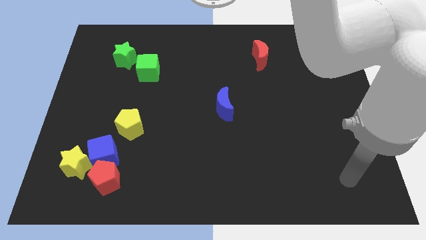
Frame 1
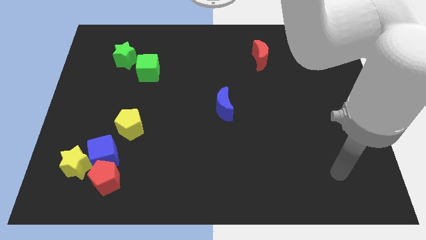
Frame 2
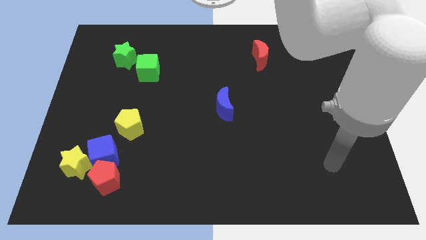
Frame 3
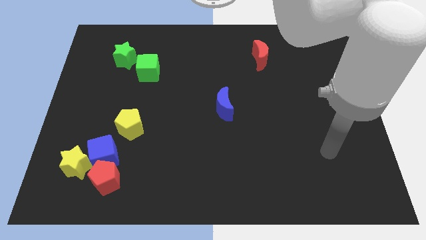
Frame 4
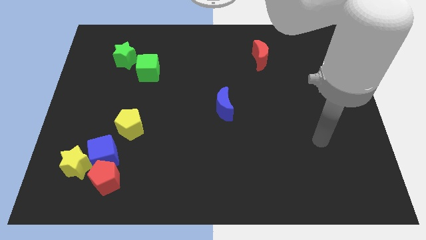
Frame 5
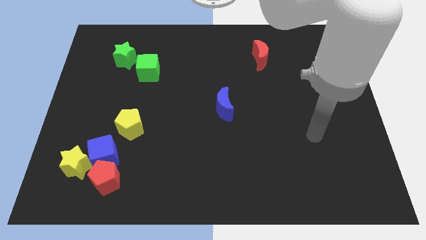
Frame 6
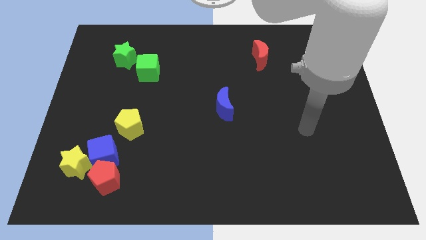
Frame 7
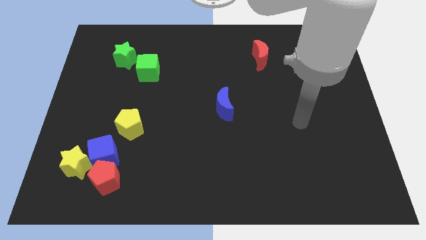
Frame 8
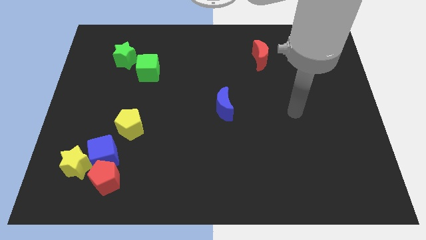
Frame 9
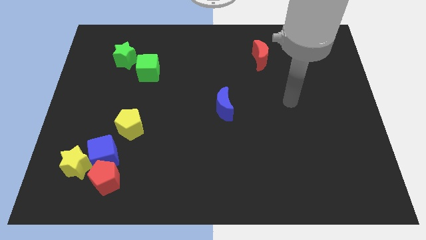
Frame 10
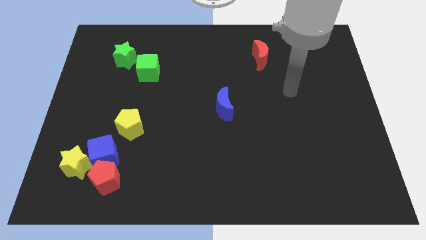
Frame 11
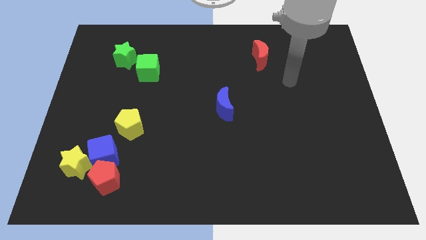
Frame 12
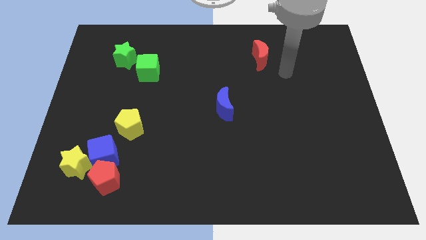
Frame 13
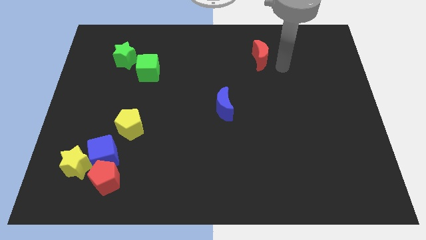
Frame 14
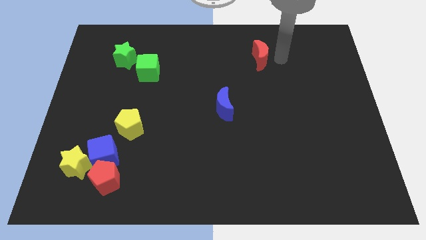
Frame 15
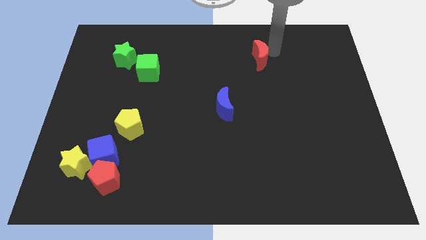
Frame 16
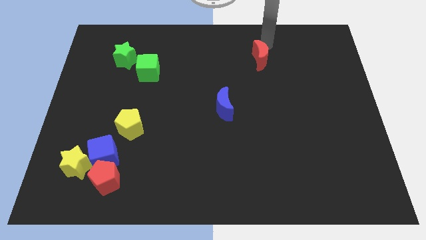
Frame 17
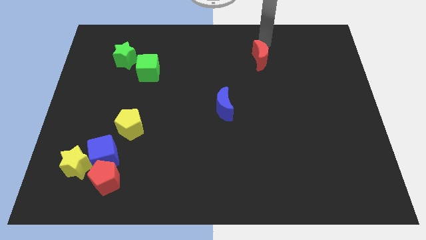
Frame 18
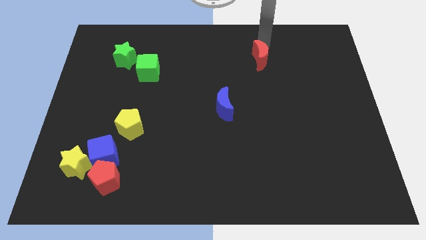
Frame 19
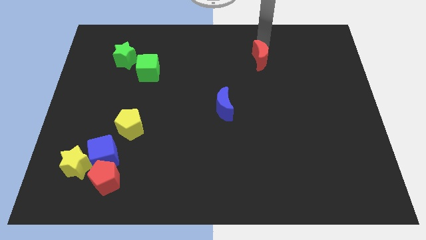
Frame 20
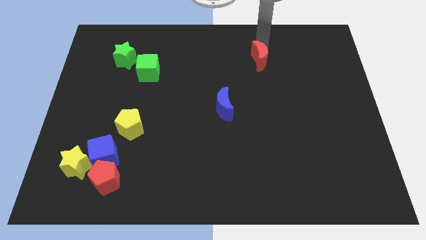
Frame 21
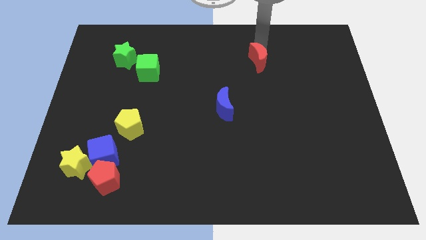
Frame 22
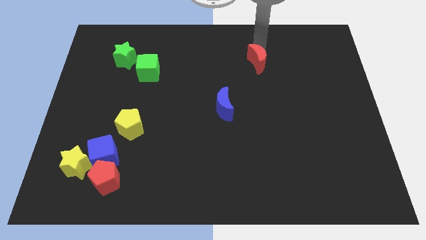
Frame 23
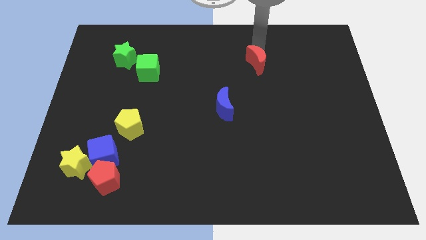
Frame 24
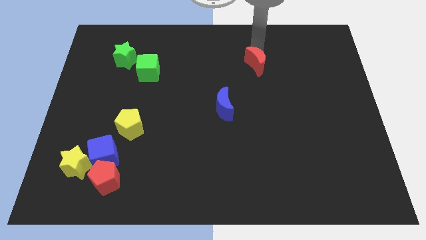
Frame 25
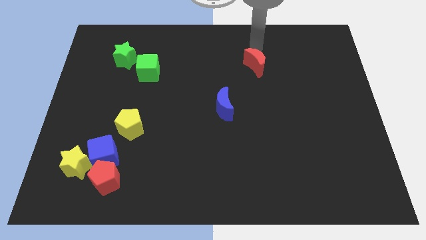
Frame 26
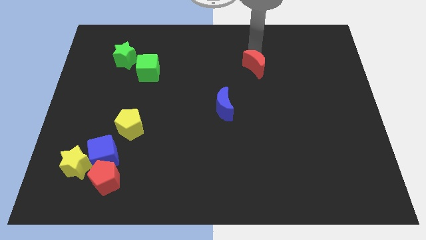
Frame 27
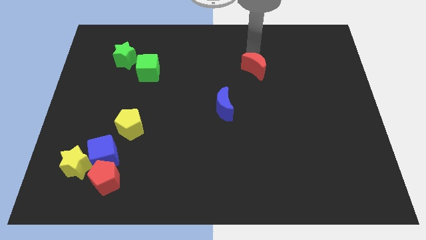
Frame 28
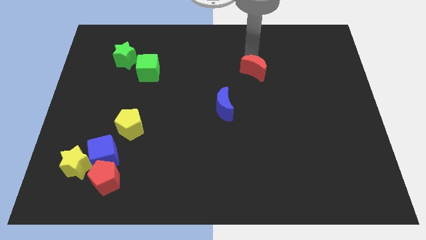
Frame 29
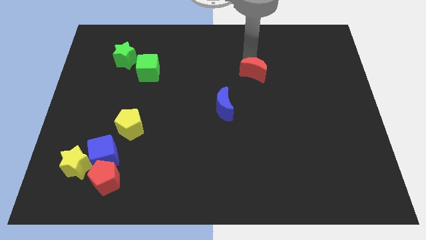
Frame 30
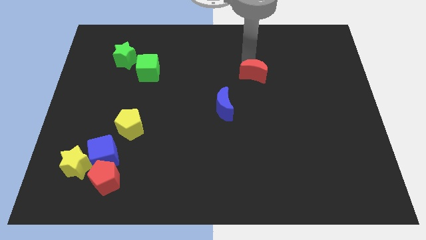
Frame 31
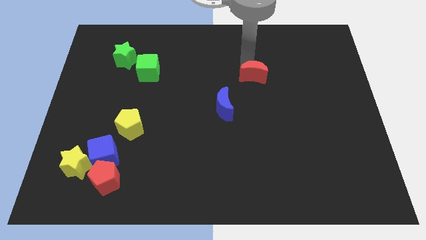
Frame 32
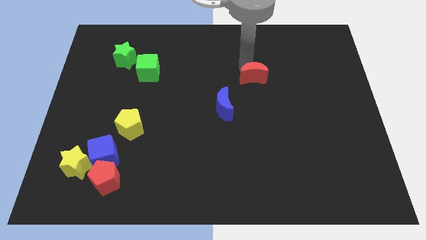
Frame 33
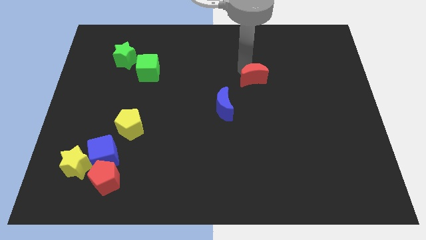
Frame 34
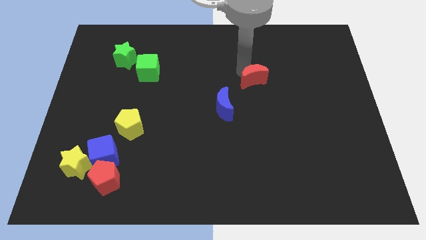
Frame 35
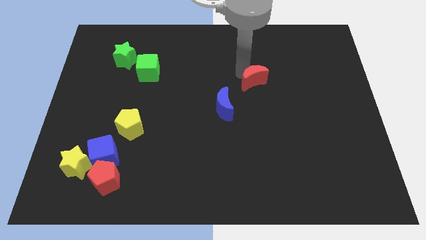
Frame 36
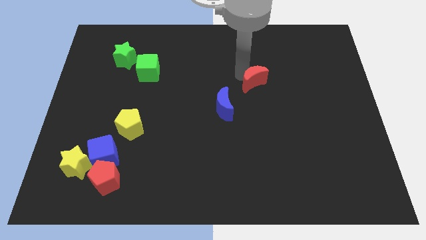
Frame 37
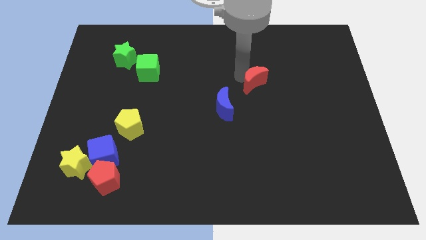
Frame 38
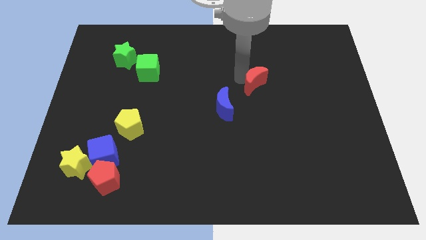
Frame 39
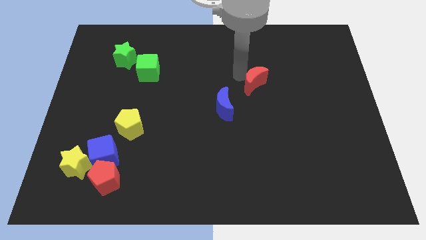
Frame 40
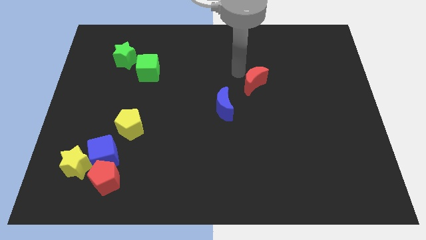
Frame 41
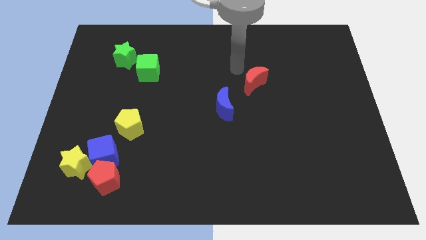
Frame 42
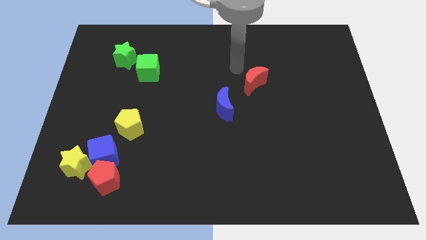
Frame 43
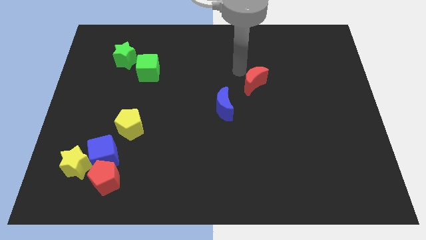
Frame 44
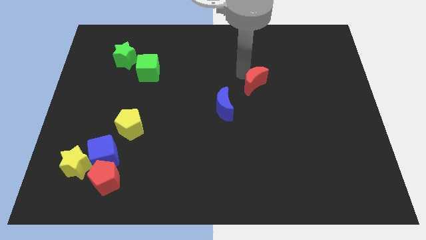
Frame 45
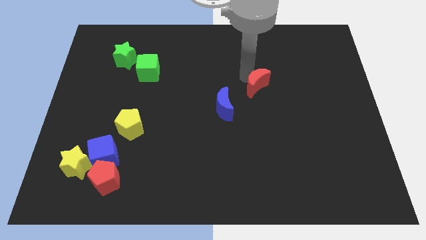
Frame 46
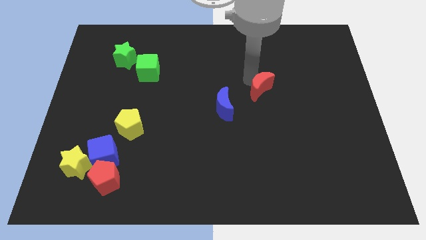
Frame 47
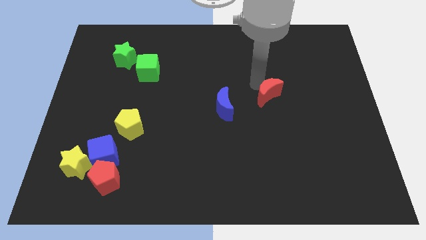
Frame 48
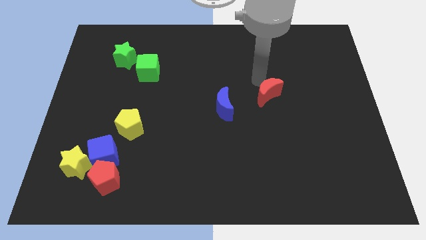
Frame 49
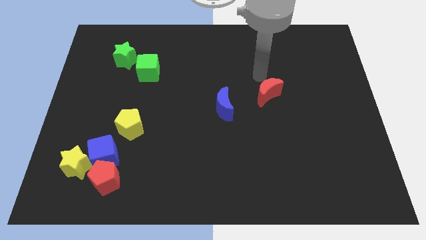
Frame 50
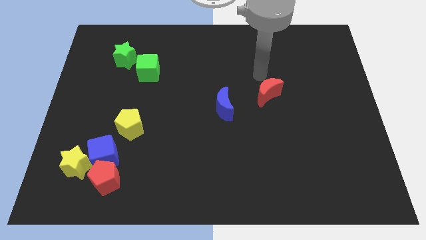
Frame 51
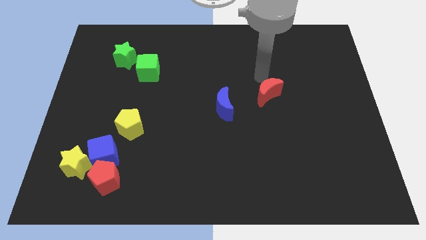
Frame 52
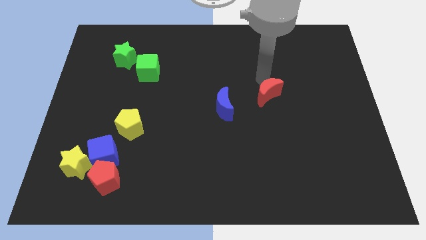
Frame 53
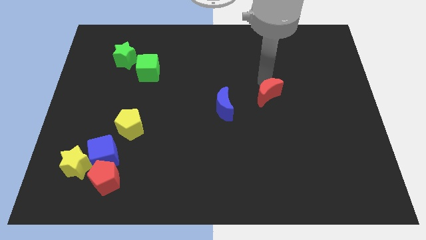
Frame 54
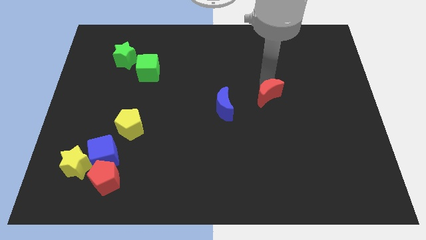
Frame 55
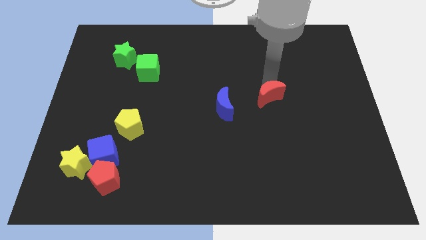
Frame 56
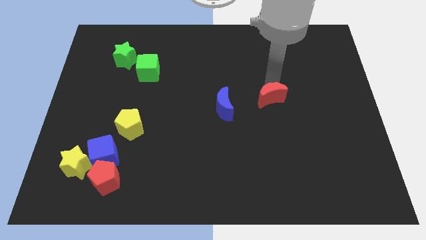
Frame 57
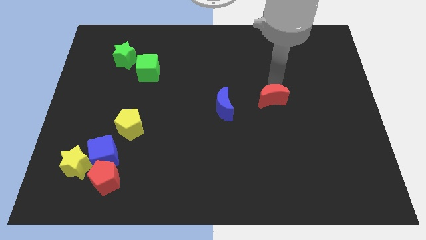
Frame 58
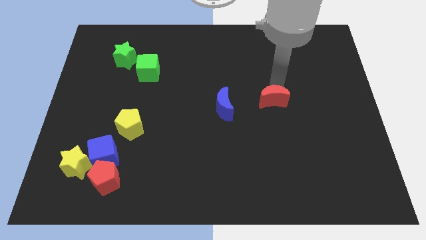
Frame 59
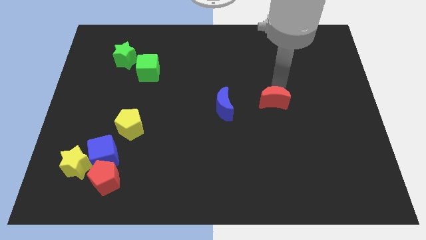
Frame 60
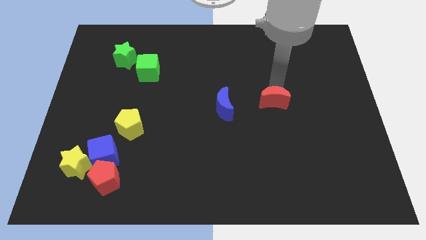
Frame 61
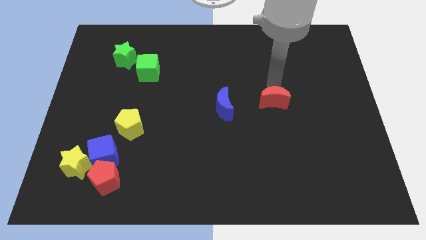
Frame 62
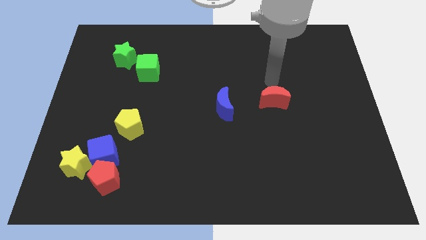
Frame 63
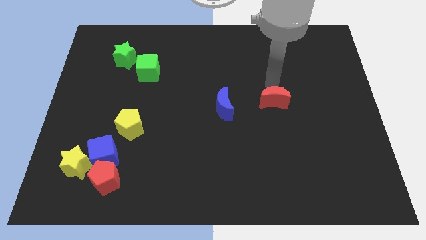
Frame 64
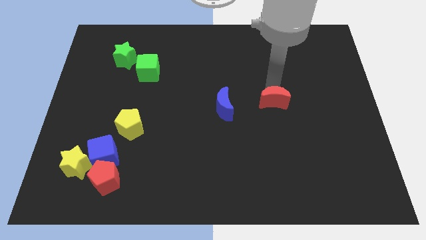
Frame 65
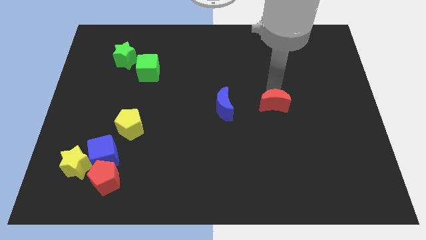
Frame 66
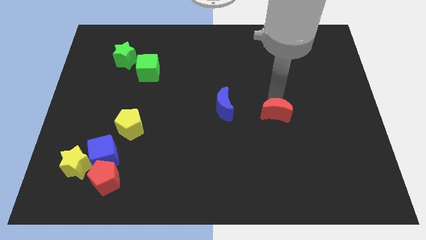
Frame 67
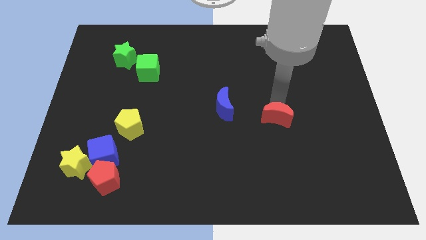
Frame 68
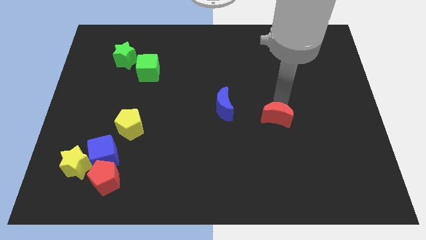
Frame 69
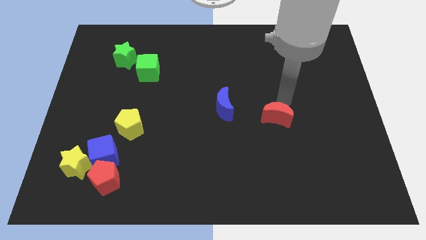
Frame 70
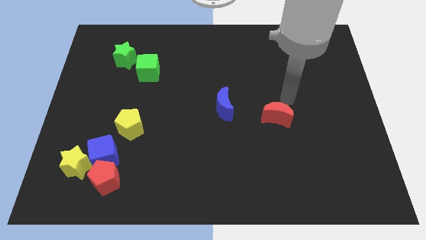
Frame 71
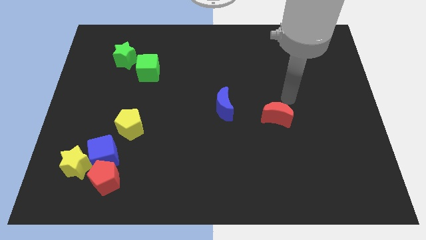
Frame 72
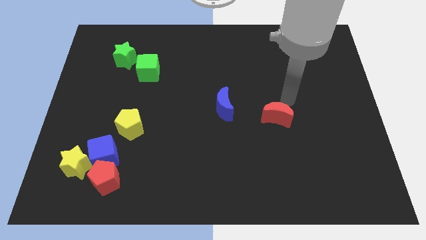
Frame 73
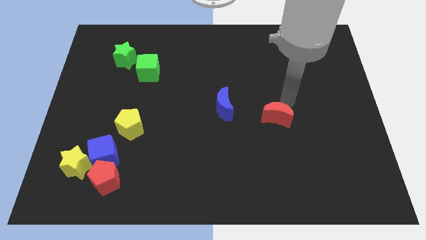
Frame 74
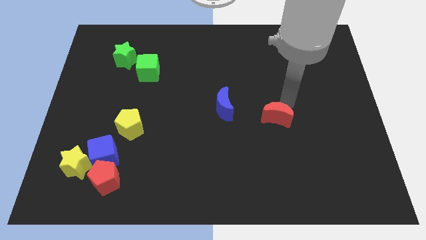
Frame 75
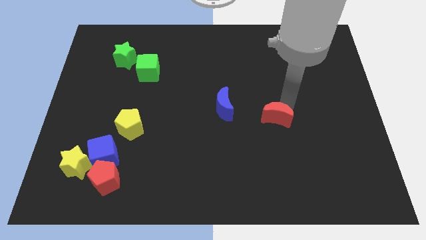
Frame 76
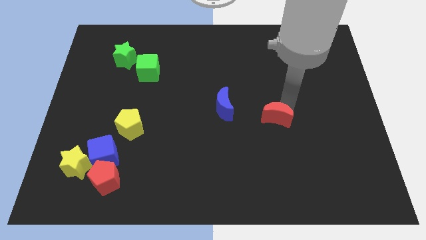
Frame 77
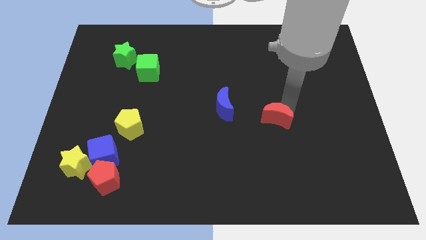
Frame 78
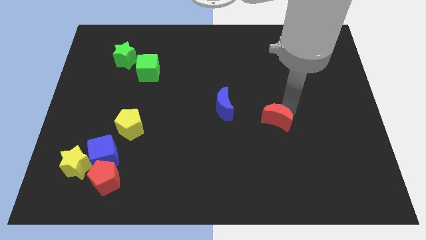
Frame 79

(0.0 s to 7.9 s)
slide the red moon down

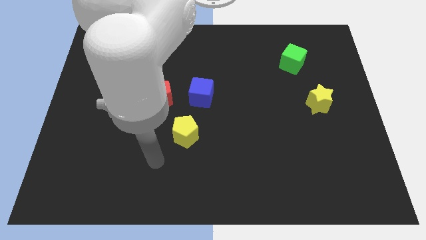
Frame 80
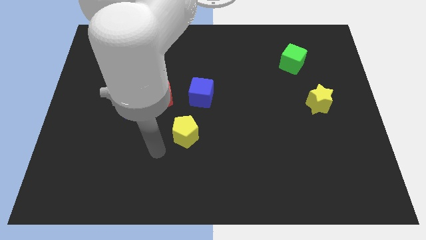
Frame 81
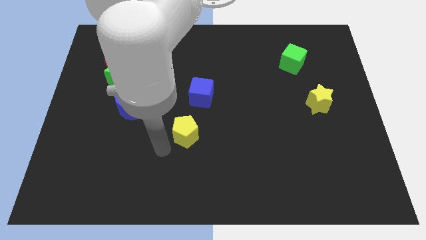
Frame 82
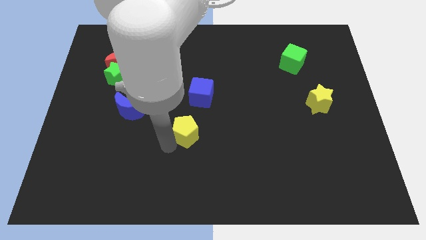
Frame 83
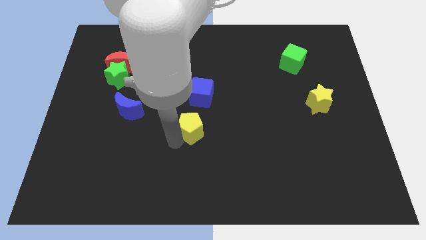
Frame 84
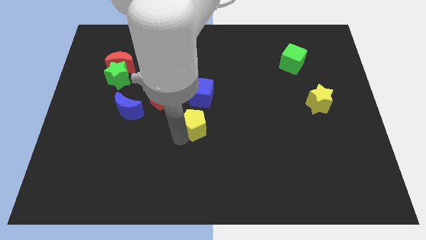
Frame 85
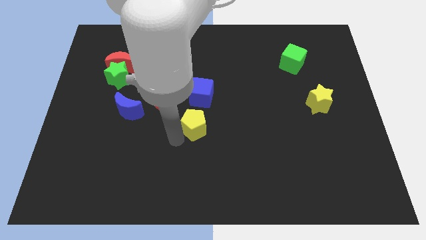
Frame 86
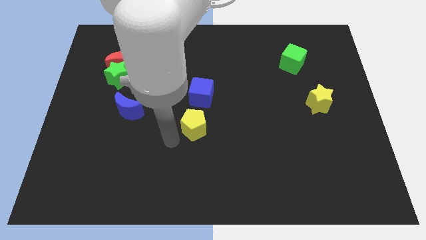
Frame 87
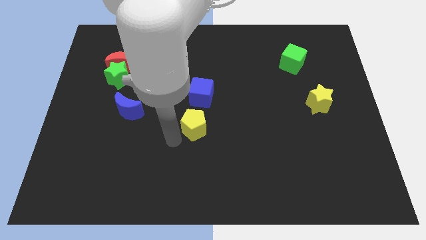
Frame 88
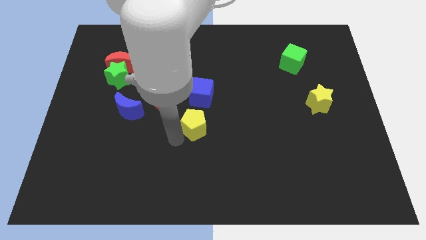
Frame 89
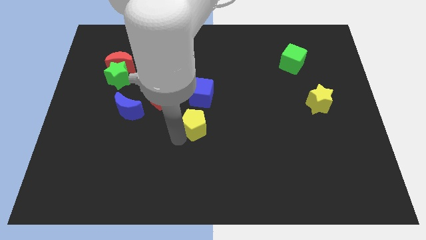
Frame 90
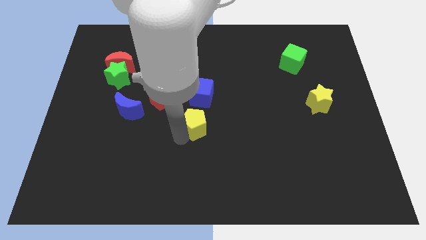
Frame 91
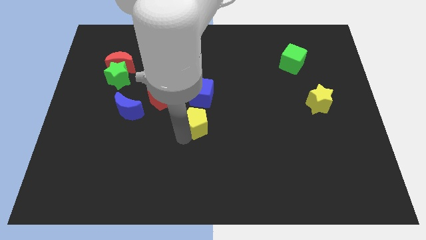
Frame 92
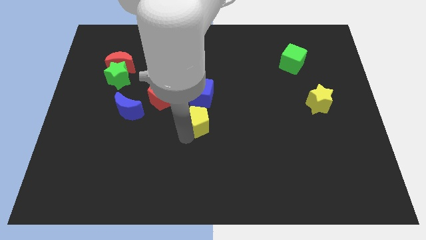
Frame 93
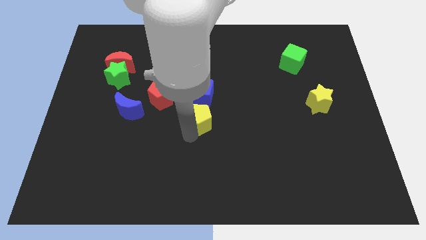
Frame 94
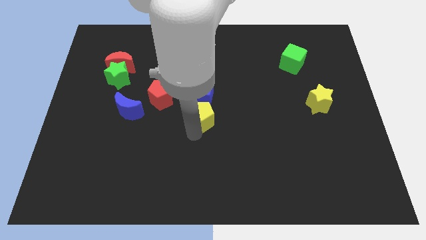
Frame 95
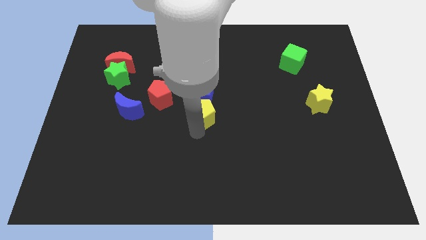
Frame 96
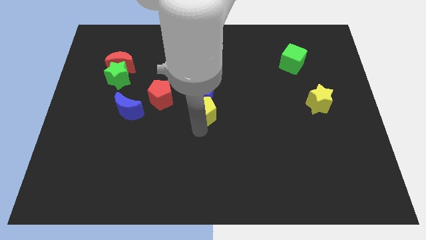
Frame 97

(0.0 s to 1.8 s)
move the yellow pentagon upwards and to the right diagonally somewhat
